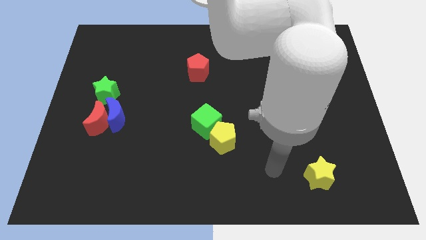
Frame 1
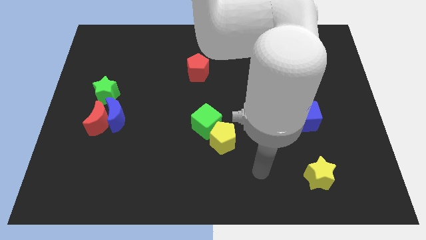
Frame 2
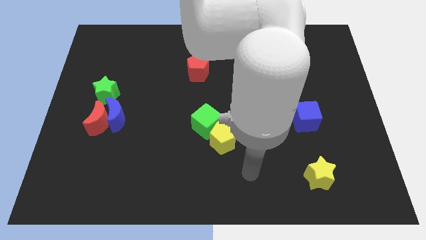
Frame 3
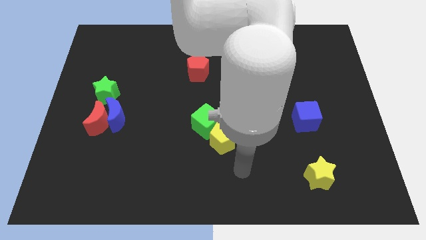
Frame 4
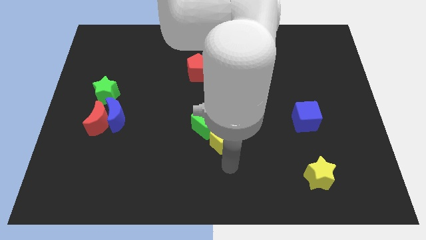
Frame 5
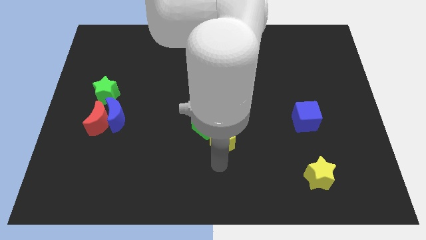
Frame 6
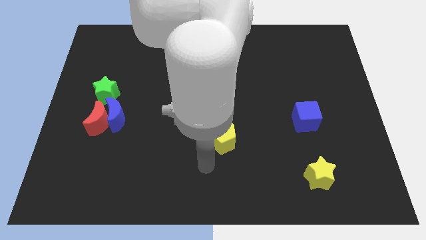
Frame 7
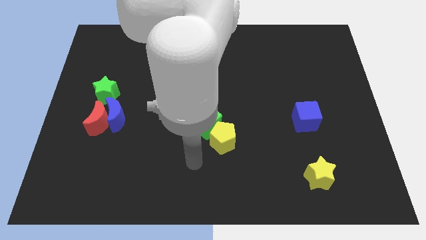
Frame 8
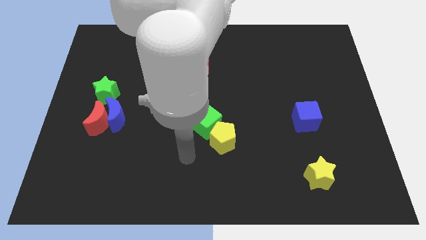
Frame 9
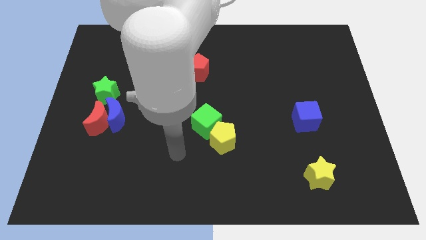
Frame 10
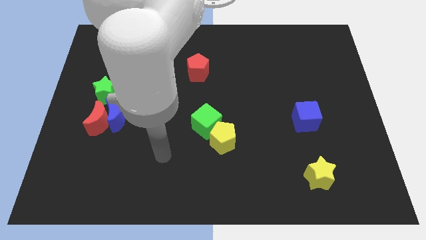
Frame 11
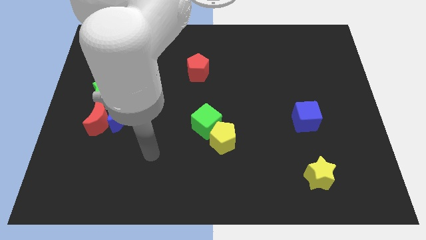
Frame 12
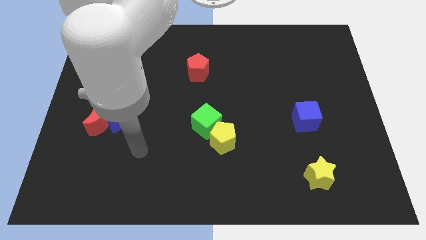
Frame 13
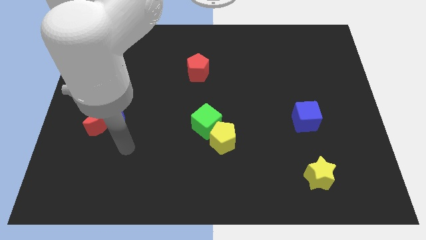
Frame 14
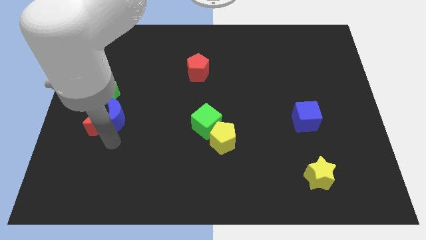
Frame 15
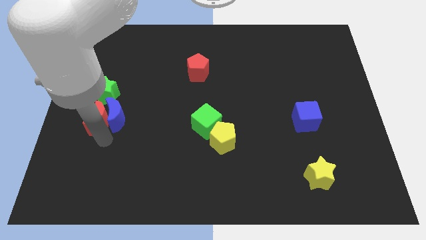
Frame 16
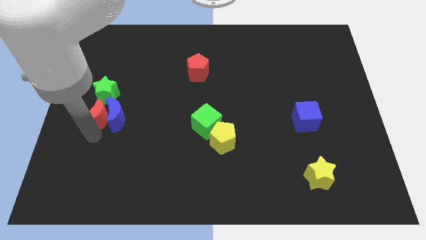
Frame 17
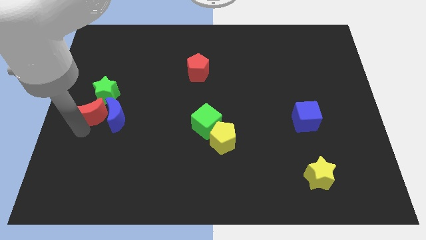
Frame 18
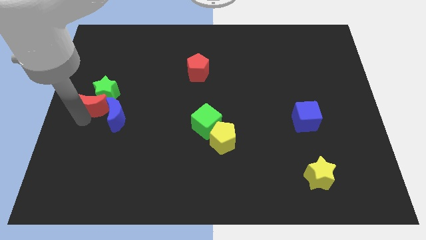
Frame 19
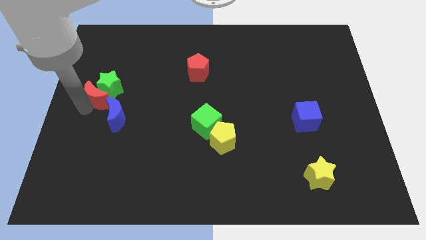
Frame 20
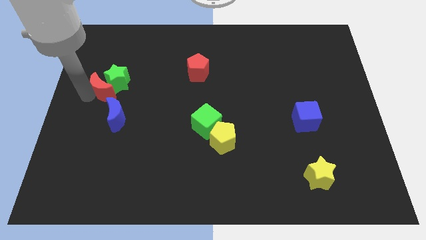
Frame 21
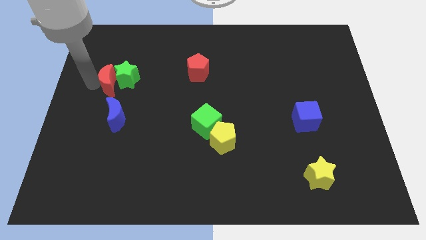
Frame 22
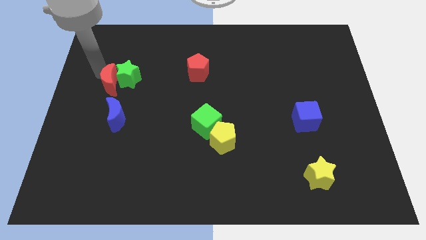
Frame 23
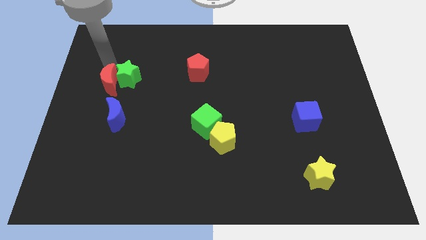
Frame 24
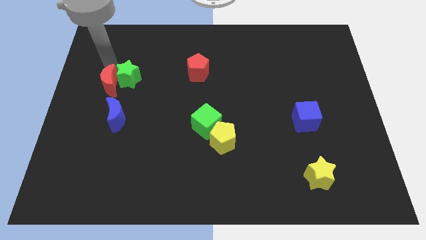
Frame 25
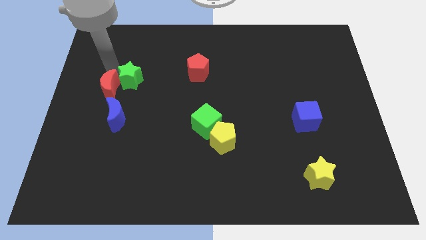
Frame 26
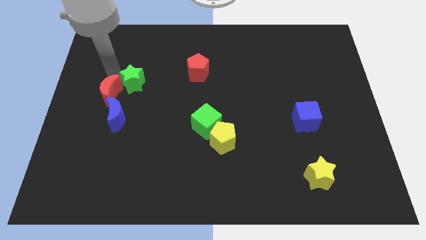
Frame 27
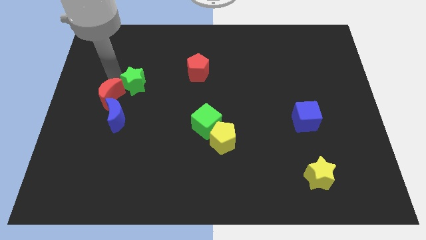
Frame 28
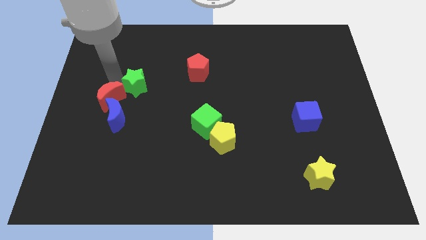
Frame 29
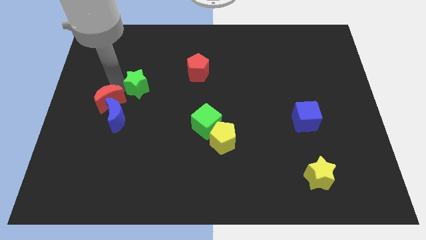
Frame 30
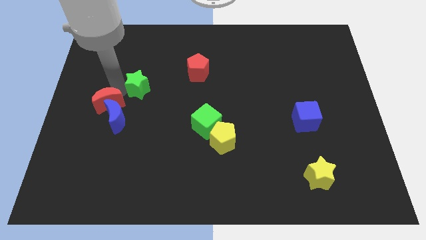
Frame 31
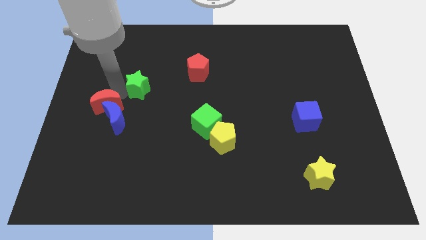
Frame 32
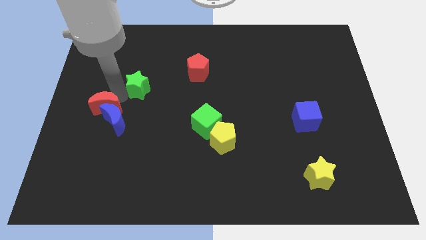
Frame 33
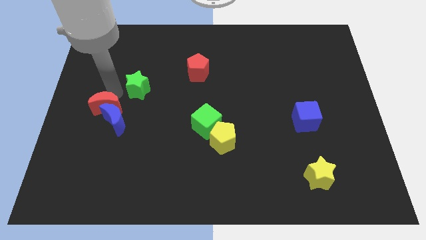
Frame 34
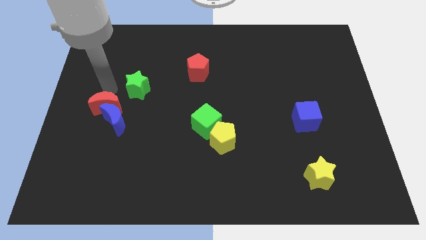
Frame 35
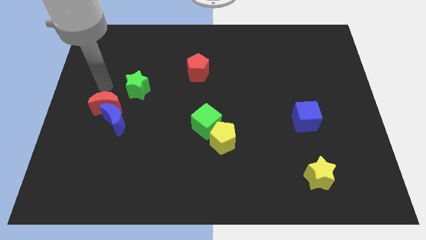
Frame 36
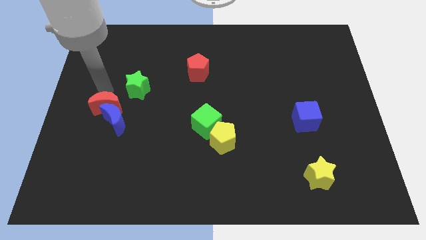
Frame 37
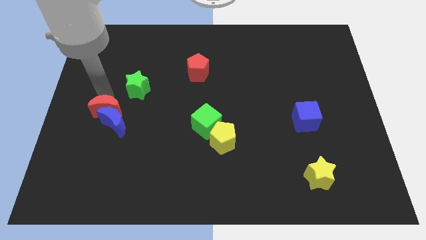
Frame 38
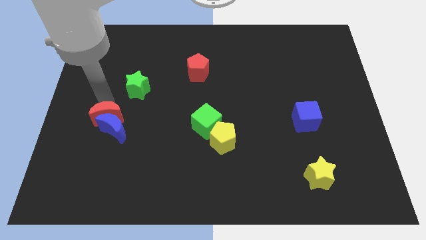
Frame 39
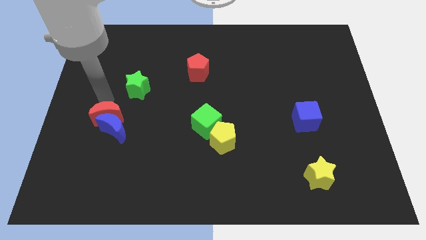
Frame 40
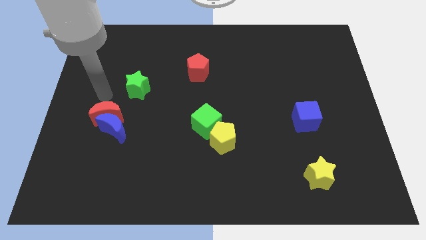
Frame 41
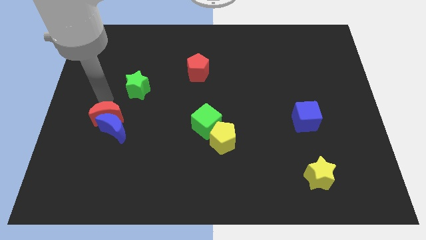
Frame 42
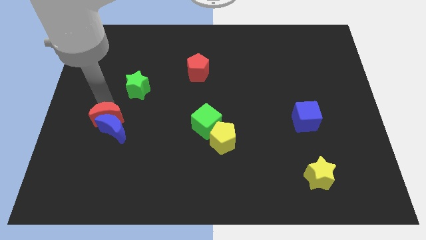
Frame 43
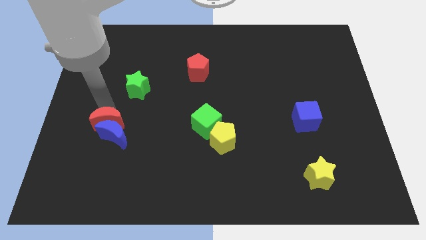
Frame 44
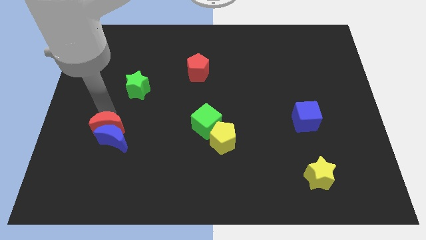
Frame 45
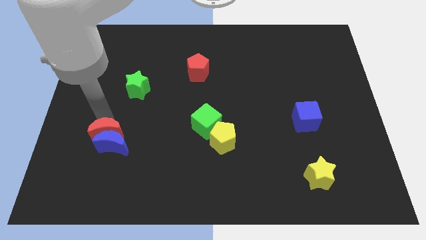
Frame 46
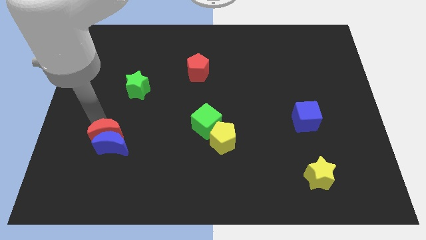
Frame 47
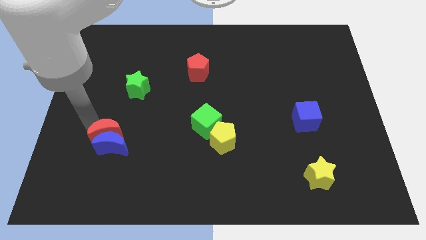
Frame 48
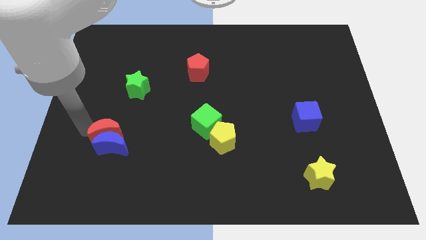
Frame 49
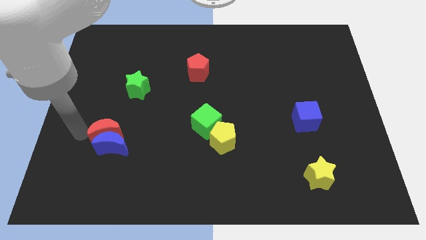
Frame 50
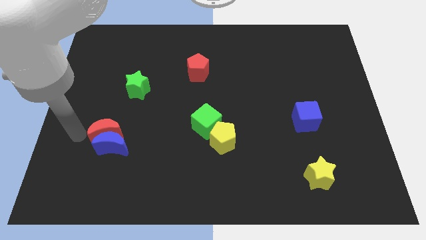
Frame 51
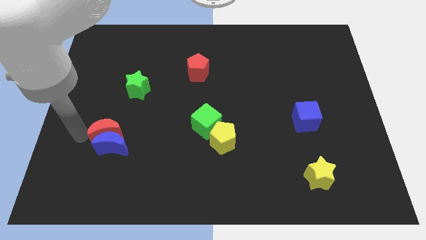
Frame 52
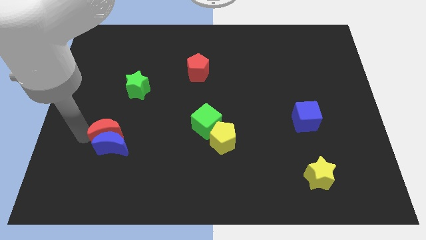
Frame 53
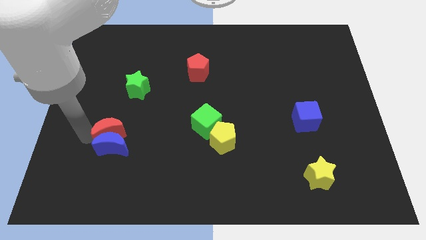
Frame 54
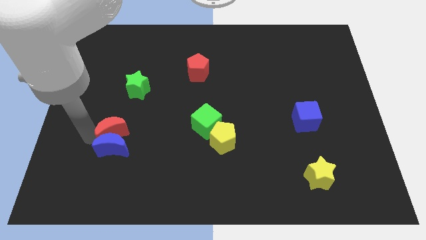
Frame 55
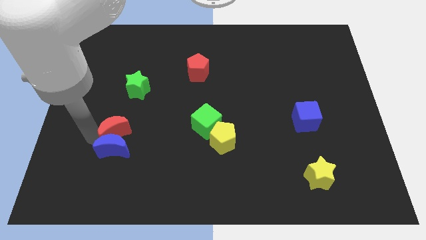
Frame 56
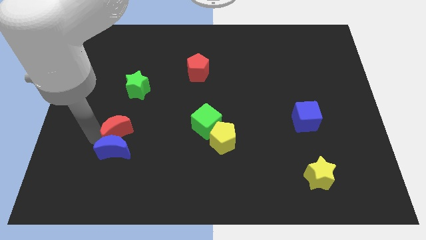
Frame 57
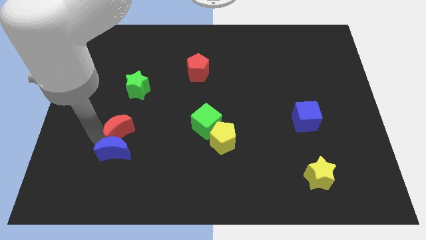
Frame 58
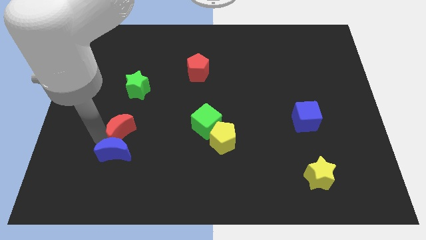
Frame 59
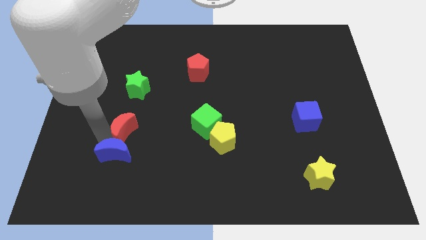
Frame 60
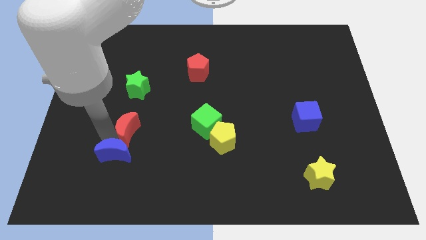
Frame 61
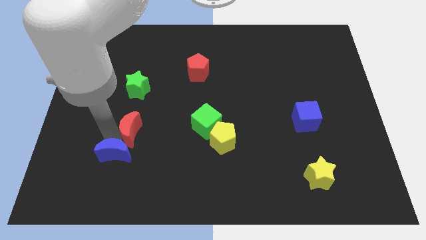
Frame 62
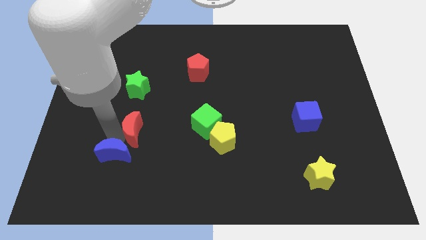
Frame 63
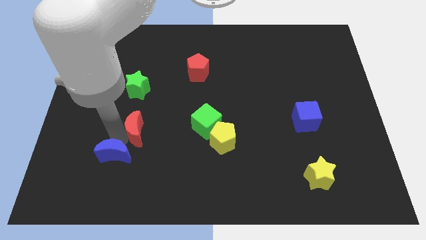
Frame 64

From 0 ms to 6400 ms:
put the red moon left of the green cube
